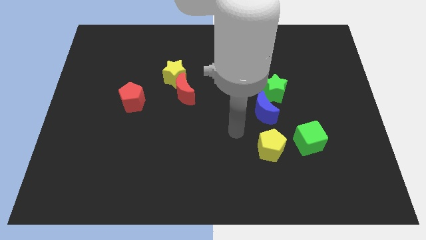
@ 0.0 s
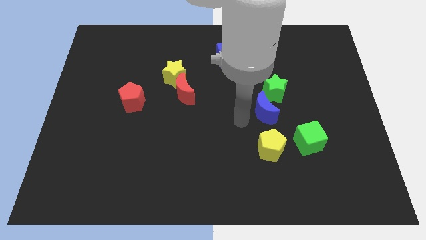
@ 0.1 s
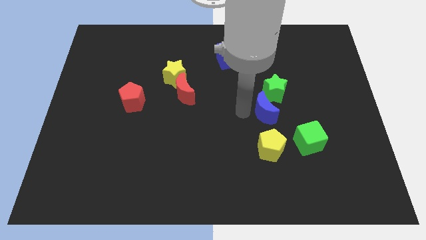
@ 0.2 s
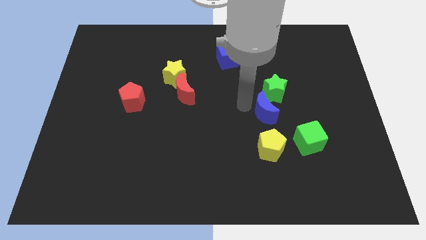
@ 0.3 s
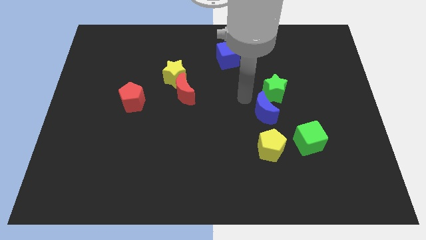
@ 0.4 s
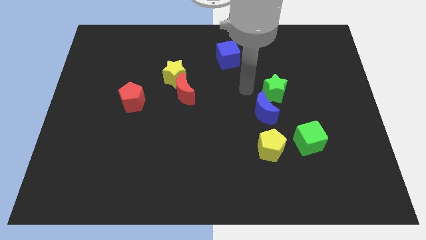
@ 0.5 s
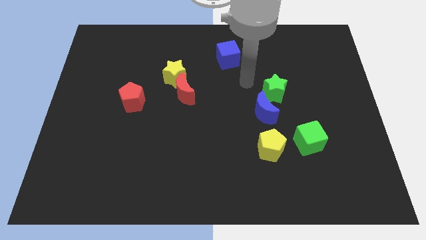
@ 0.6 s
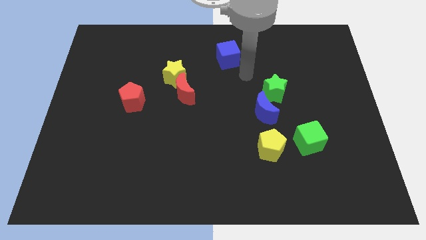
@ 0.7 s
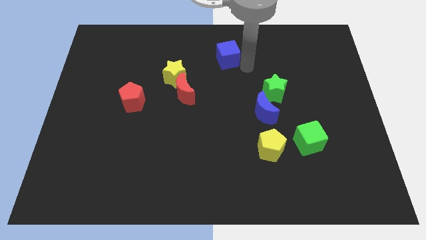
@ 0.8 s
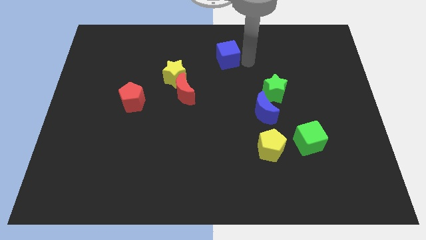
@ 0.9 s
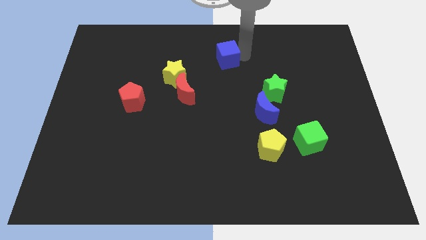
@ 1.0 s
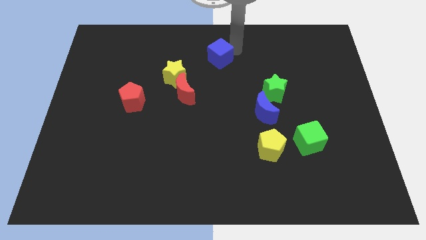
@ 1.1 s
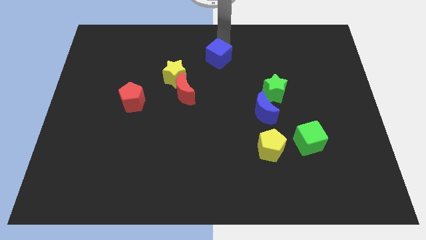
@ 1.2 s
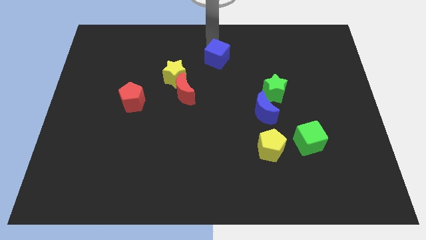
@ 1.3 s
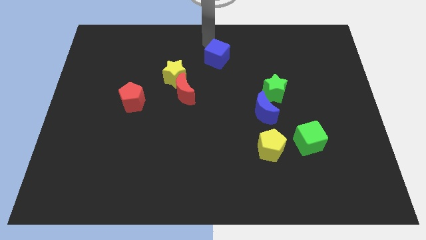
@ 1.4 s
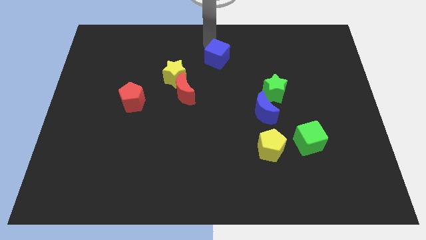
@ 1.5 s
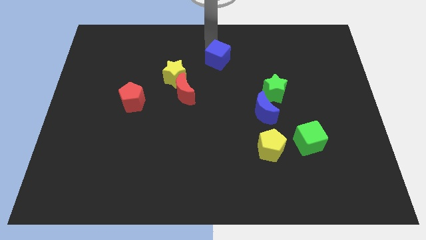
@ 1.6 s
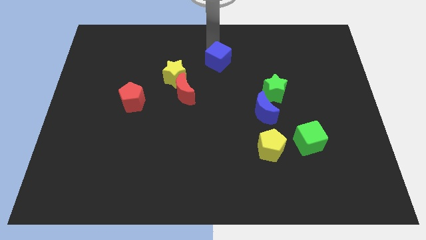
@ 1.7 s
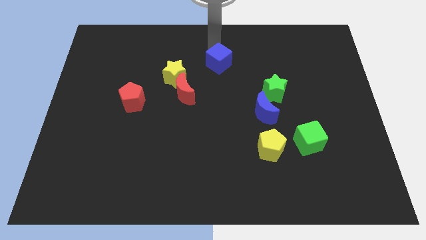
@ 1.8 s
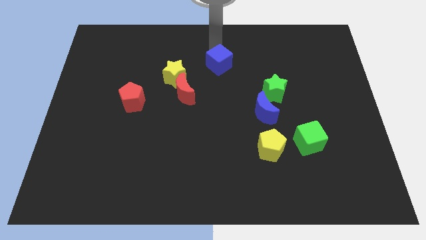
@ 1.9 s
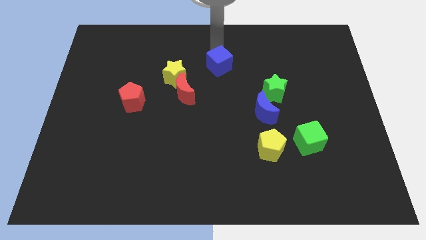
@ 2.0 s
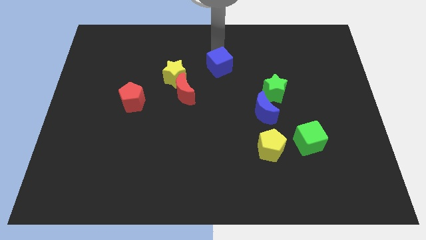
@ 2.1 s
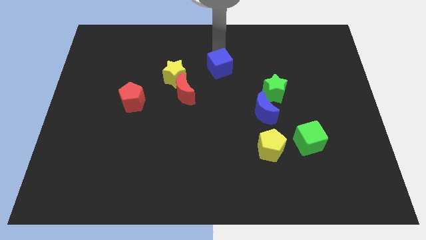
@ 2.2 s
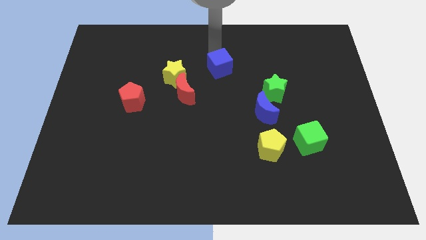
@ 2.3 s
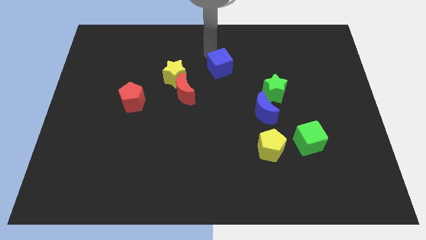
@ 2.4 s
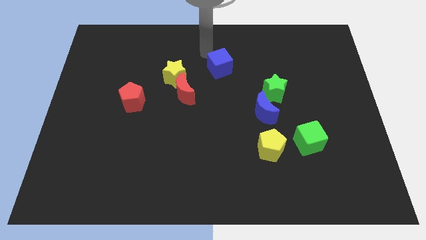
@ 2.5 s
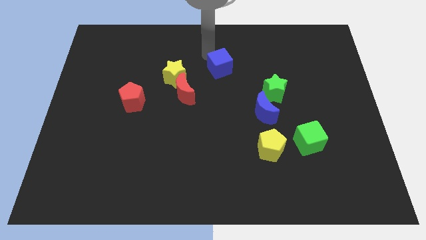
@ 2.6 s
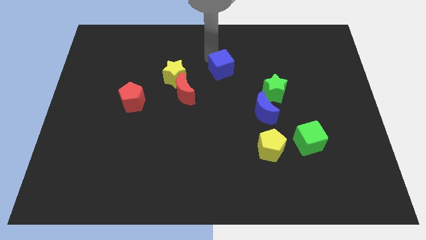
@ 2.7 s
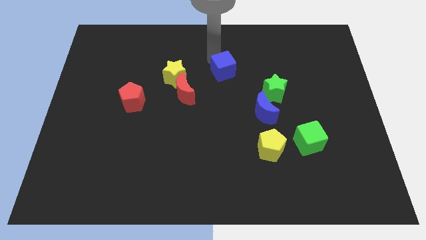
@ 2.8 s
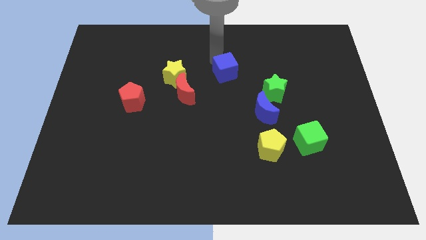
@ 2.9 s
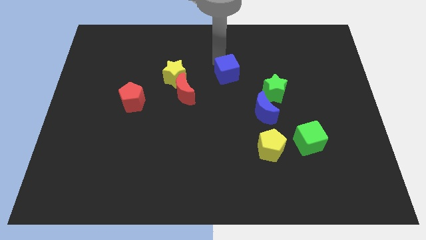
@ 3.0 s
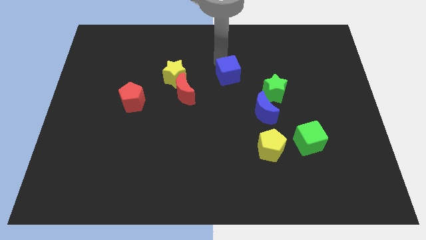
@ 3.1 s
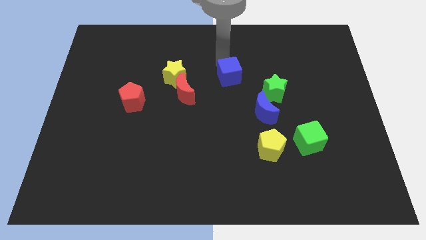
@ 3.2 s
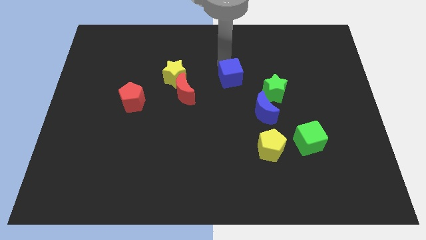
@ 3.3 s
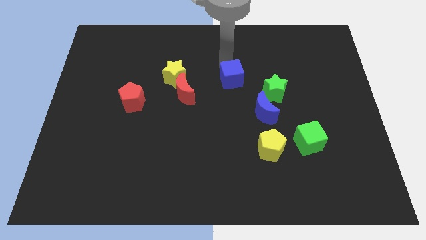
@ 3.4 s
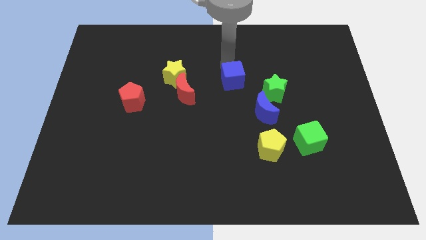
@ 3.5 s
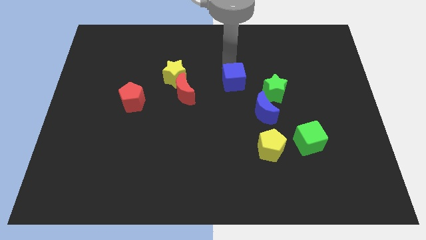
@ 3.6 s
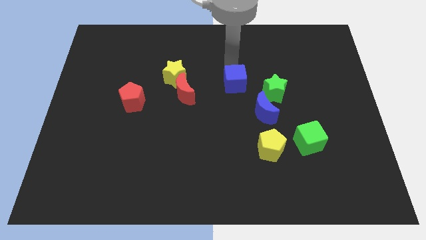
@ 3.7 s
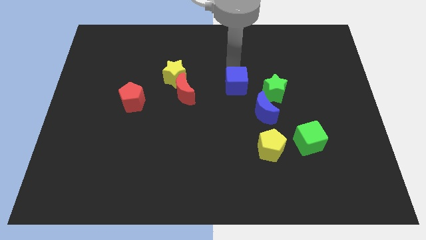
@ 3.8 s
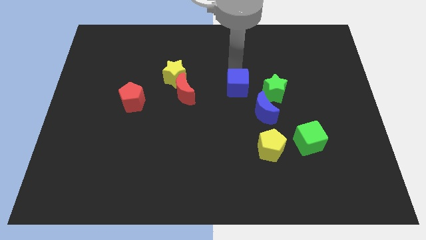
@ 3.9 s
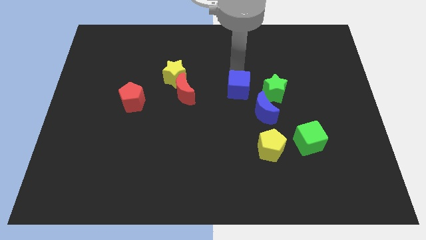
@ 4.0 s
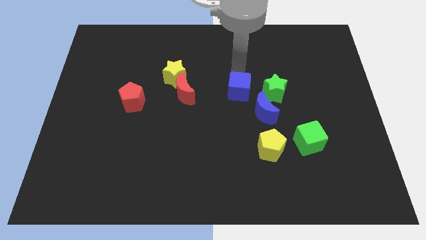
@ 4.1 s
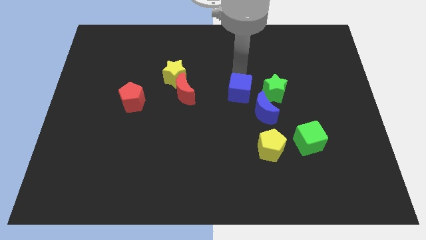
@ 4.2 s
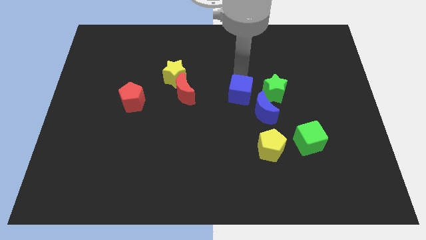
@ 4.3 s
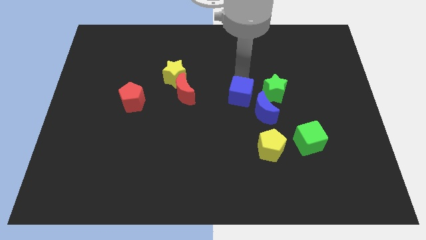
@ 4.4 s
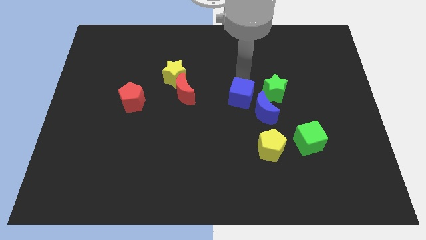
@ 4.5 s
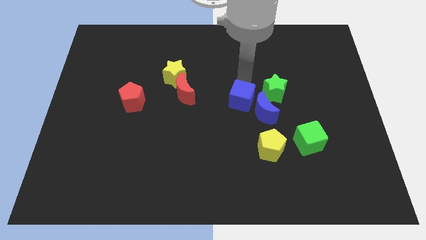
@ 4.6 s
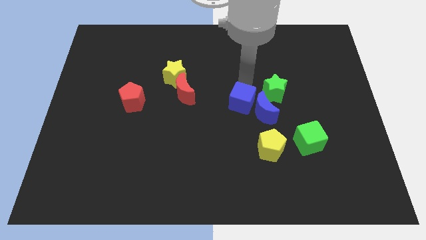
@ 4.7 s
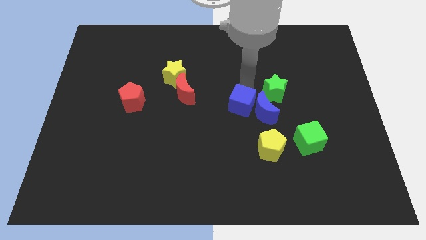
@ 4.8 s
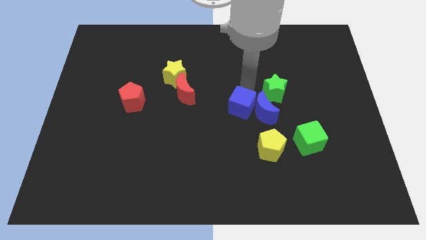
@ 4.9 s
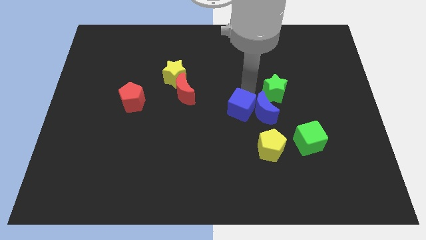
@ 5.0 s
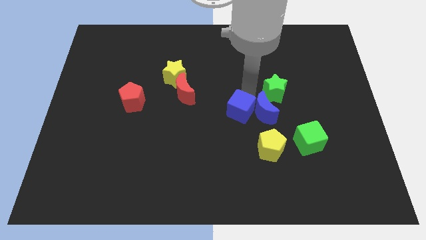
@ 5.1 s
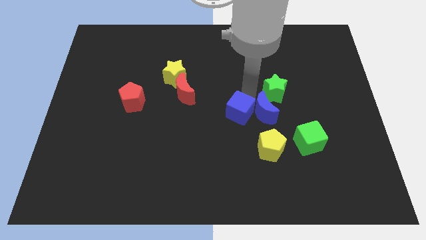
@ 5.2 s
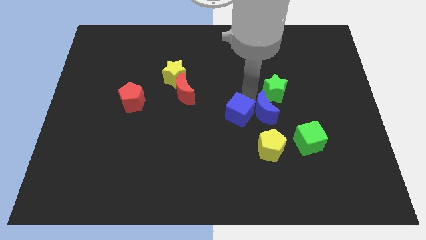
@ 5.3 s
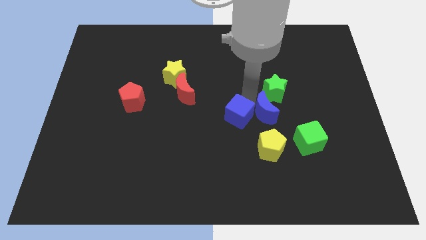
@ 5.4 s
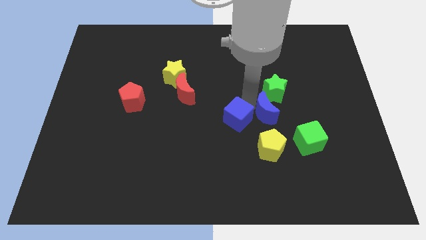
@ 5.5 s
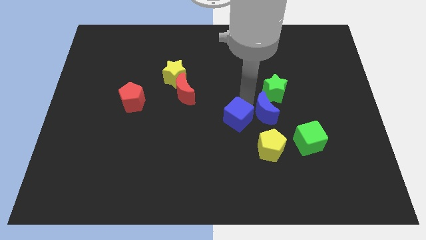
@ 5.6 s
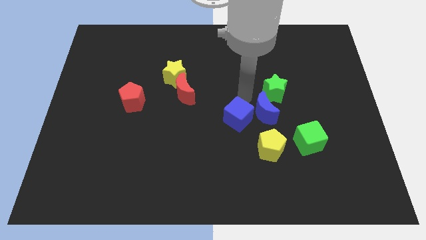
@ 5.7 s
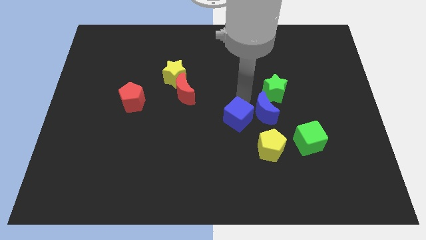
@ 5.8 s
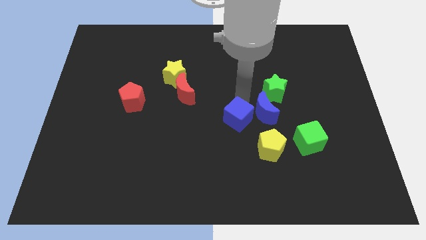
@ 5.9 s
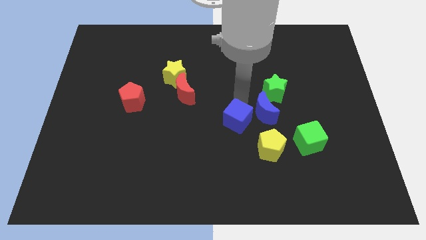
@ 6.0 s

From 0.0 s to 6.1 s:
push the blue cube down

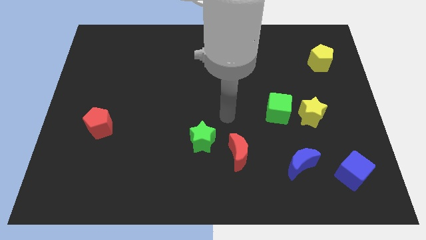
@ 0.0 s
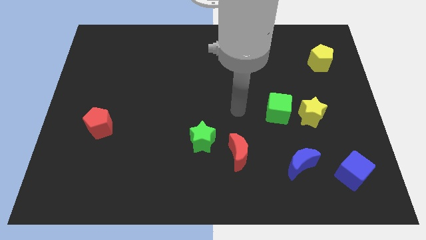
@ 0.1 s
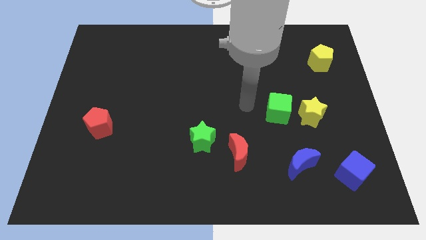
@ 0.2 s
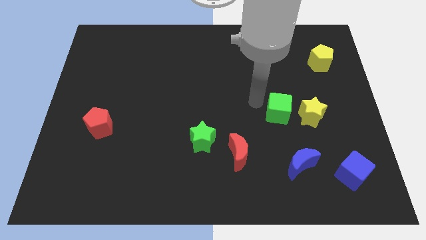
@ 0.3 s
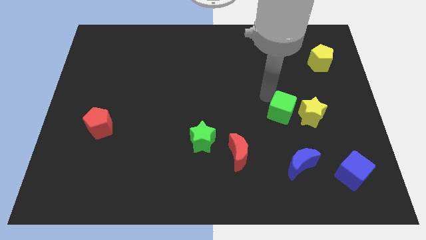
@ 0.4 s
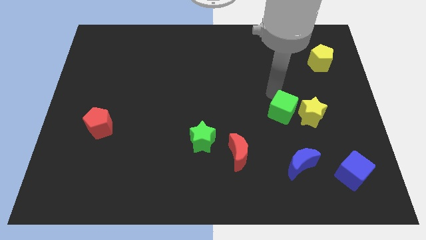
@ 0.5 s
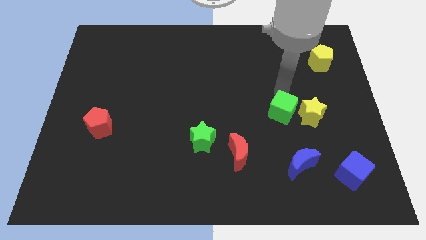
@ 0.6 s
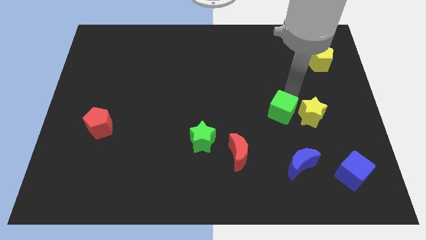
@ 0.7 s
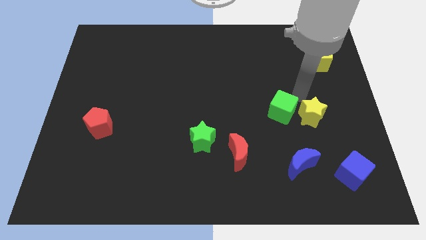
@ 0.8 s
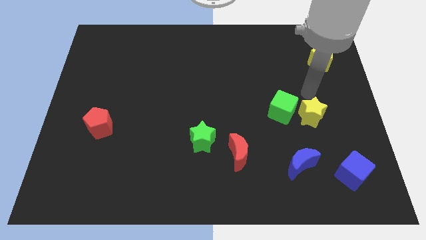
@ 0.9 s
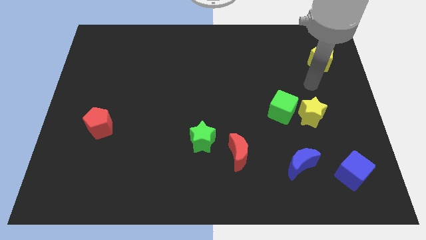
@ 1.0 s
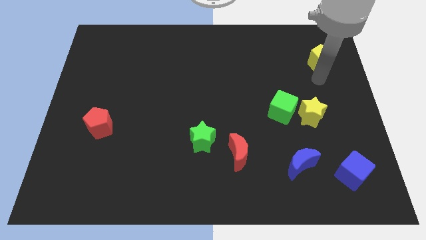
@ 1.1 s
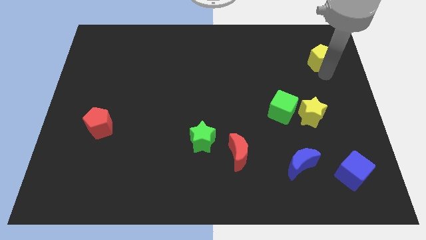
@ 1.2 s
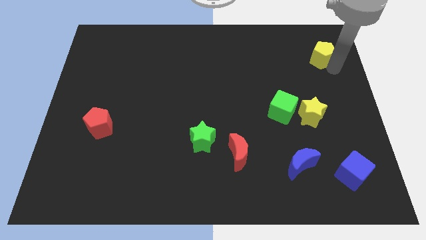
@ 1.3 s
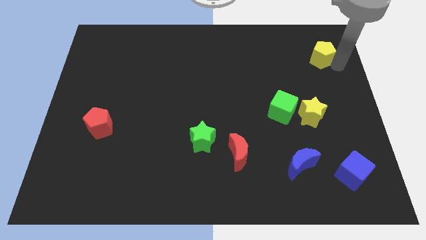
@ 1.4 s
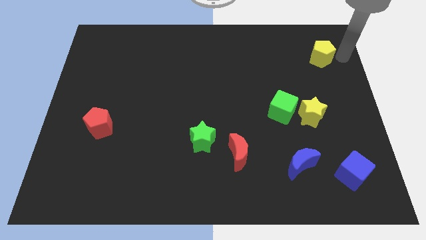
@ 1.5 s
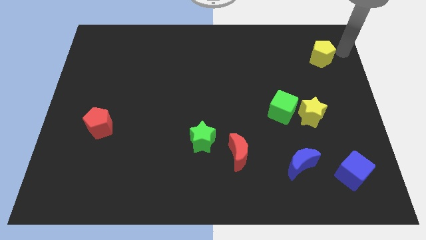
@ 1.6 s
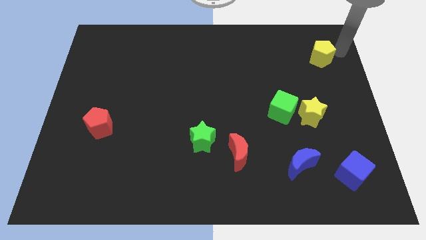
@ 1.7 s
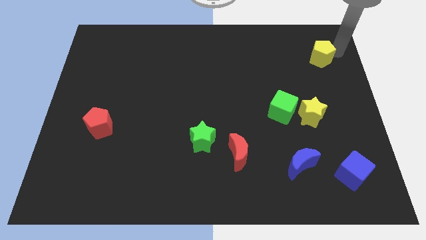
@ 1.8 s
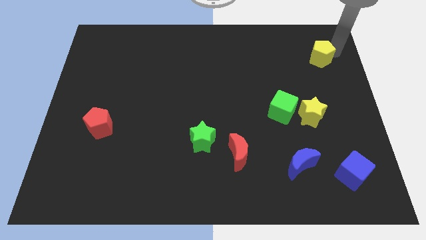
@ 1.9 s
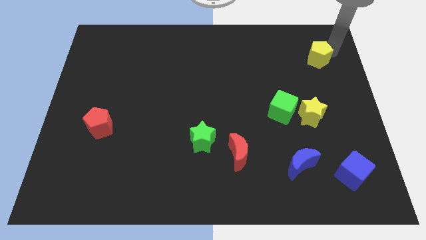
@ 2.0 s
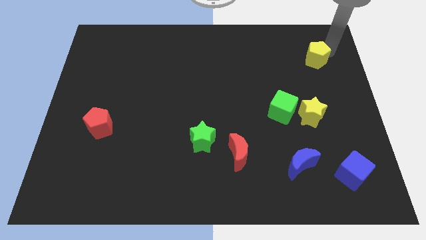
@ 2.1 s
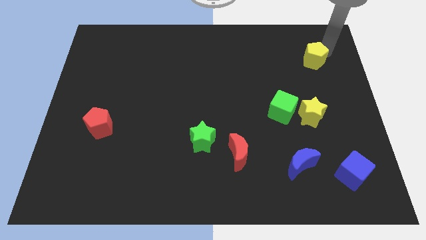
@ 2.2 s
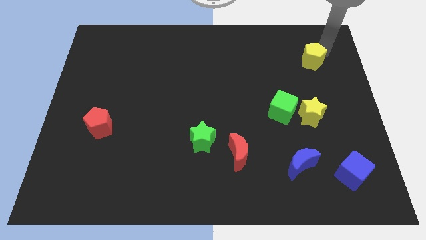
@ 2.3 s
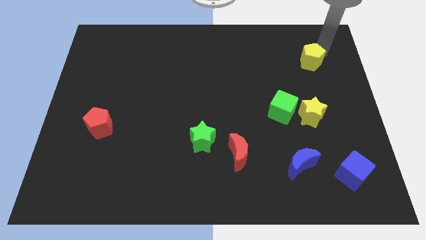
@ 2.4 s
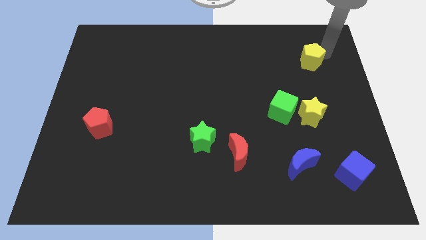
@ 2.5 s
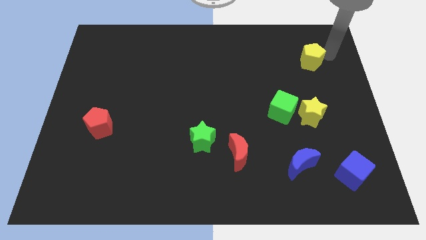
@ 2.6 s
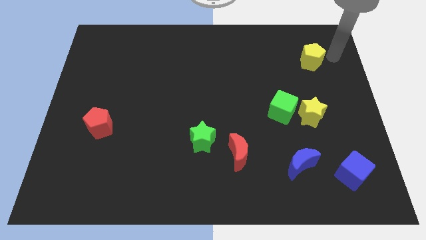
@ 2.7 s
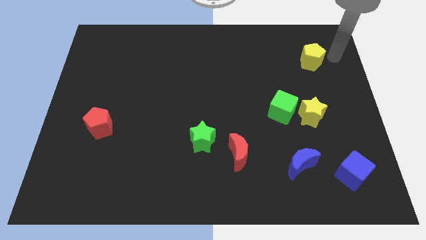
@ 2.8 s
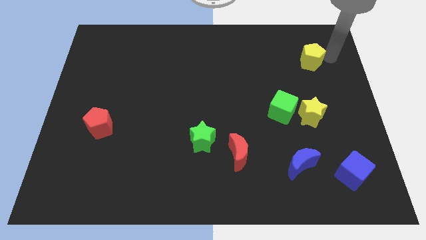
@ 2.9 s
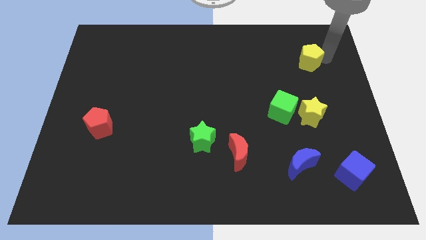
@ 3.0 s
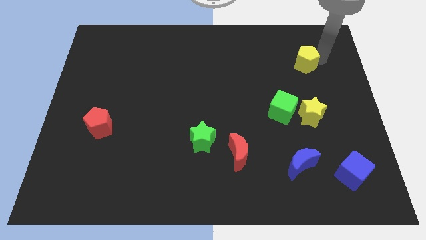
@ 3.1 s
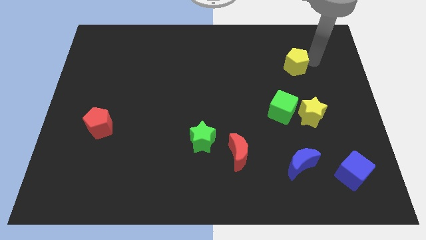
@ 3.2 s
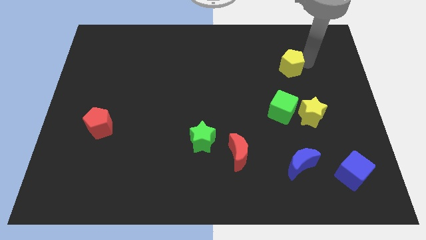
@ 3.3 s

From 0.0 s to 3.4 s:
push the yellow pentagon a little bit to the left
